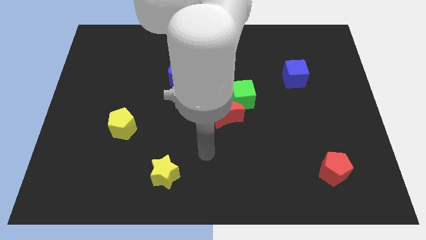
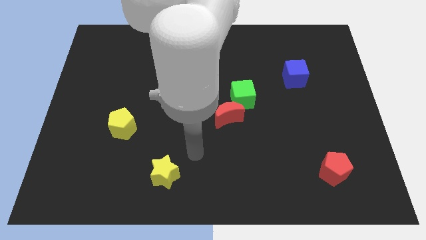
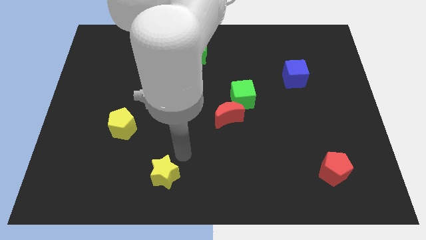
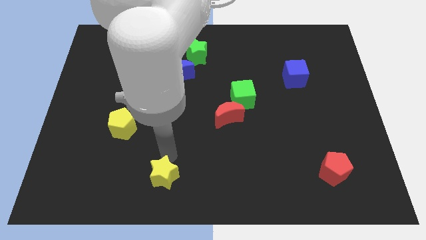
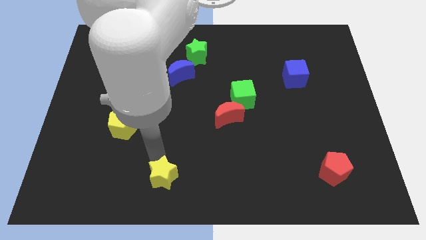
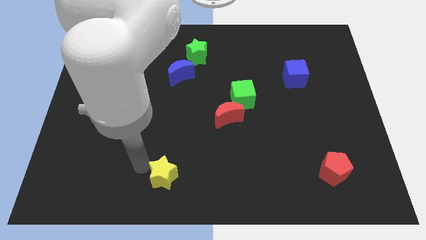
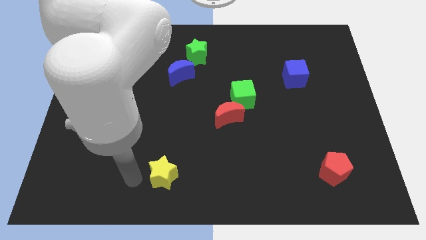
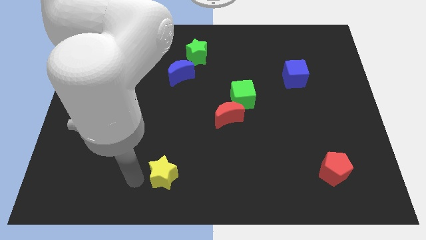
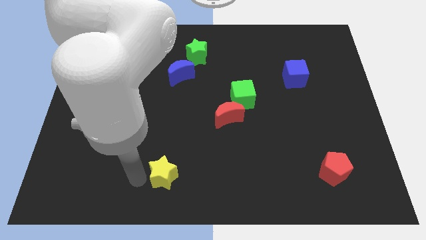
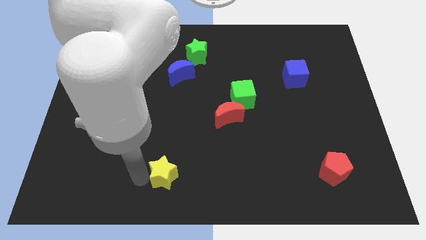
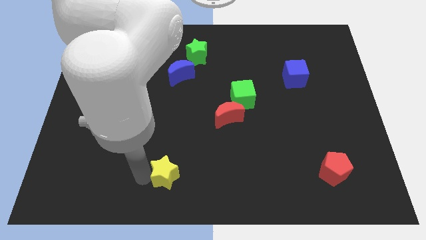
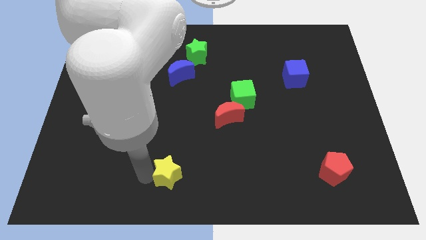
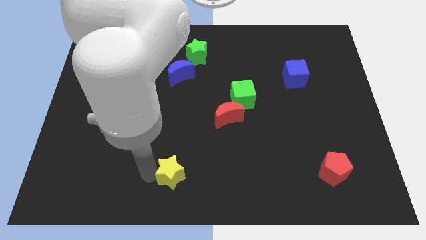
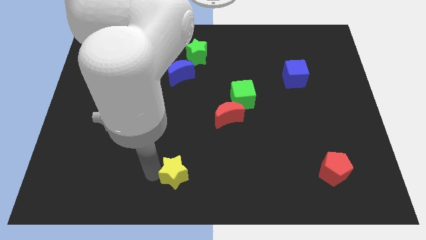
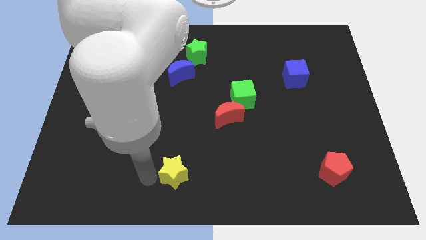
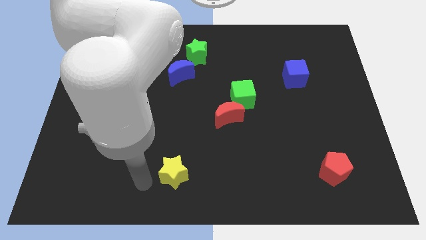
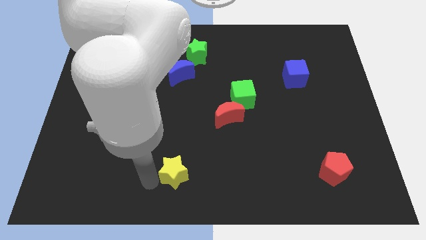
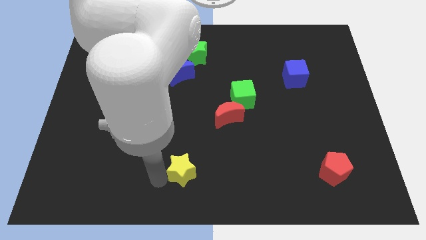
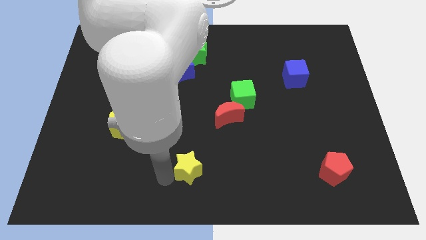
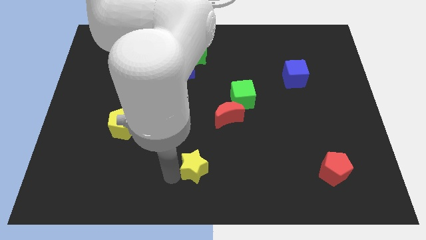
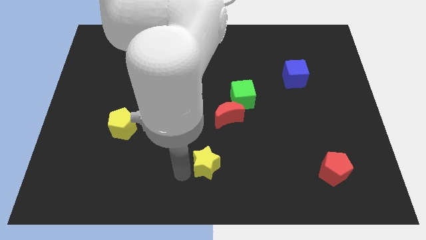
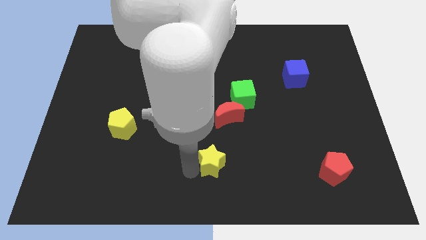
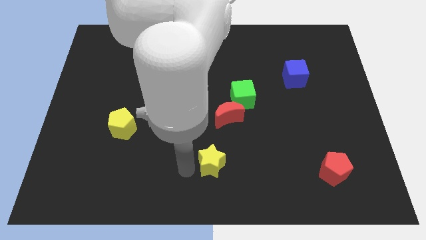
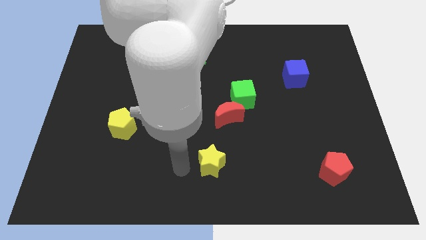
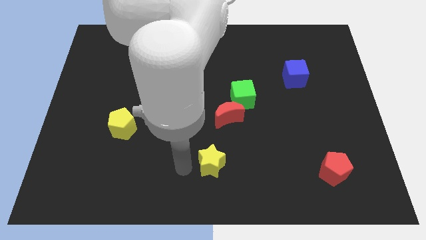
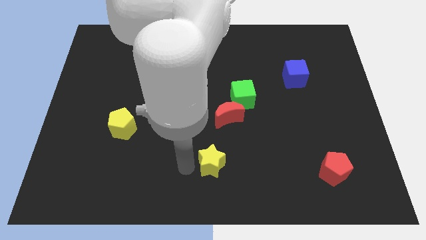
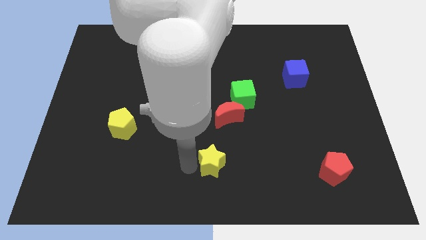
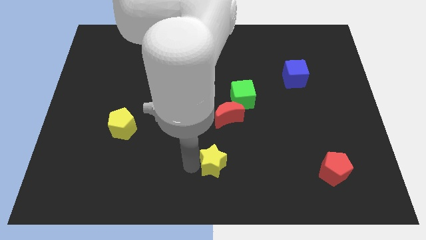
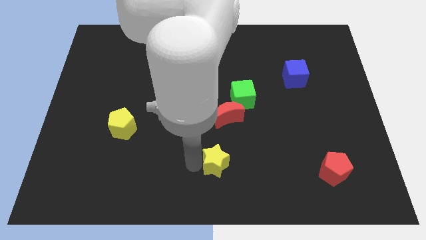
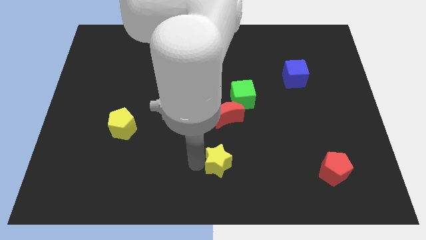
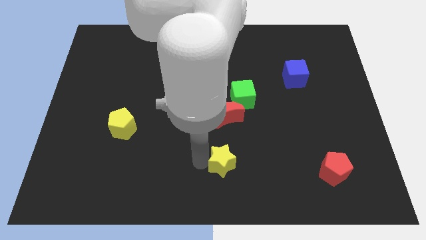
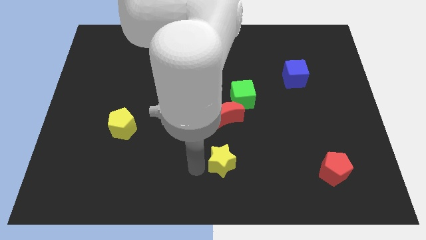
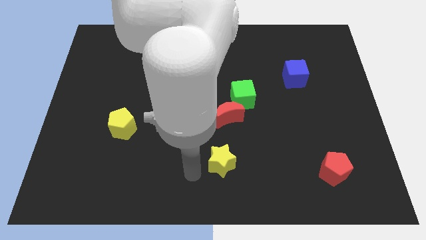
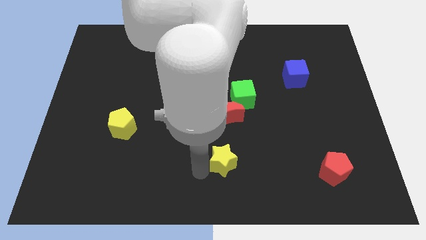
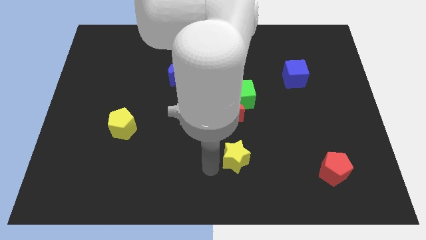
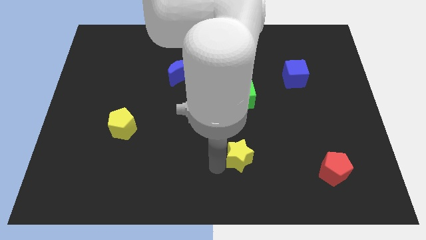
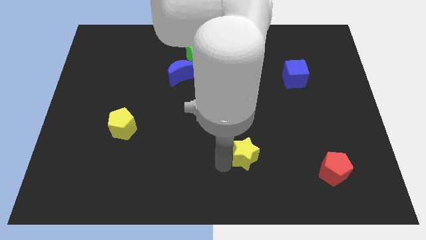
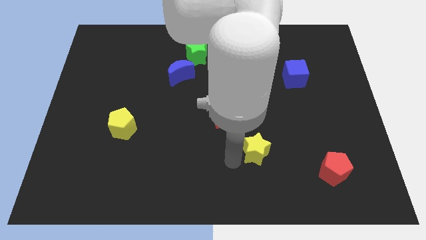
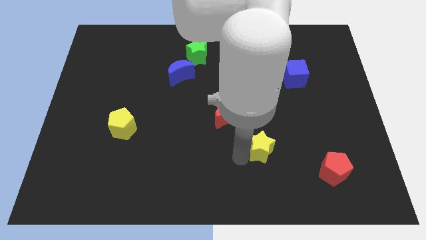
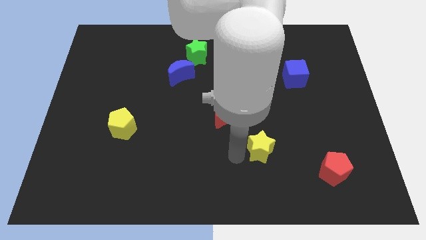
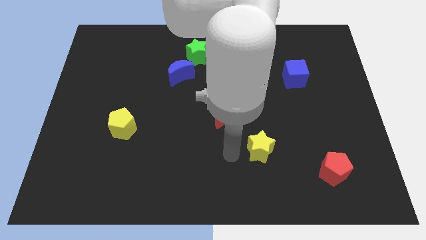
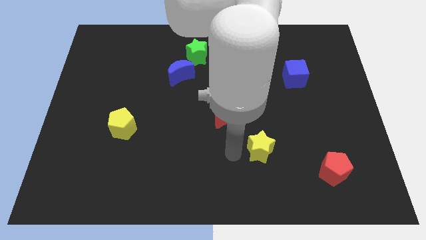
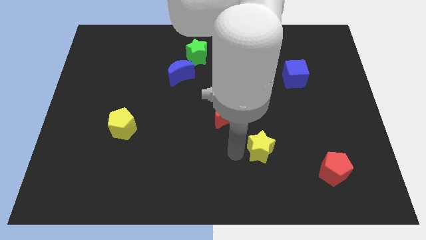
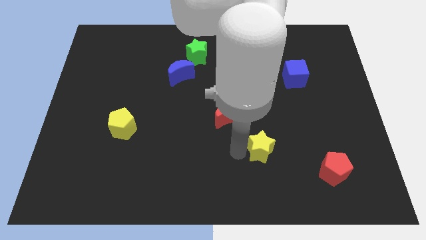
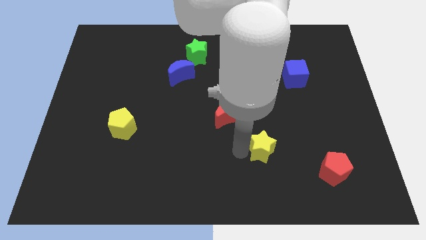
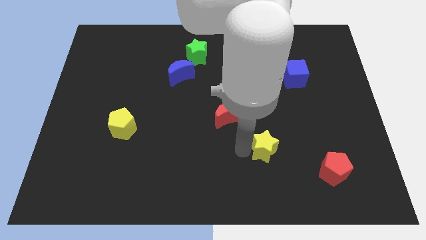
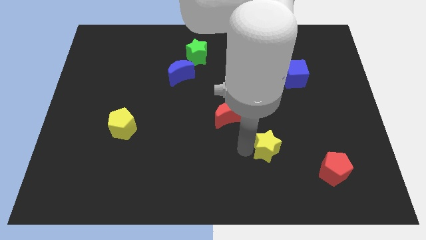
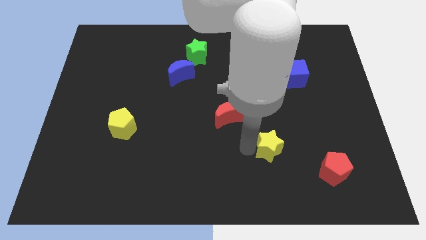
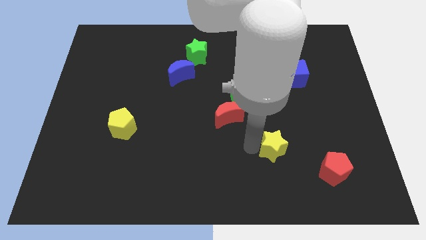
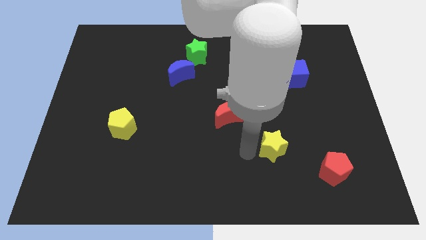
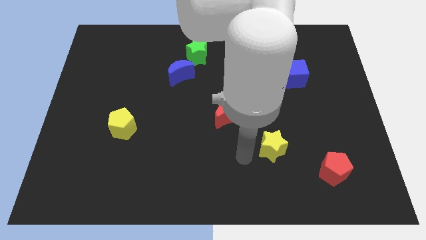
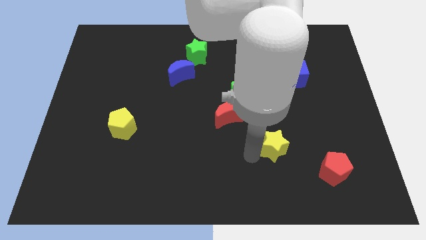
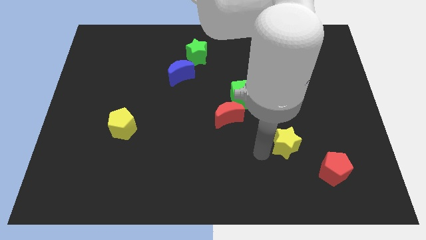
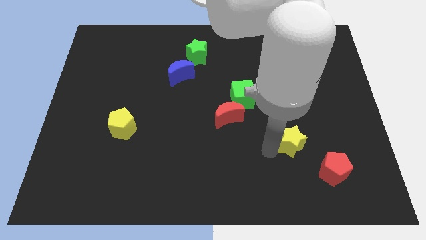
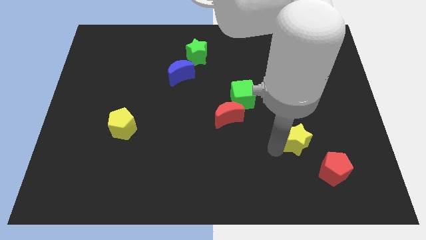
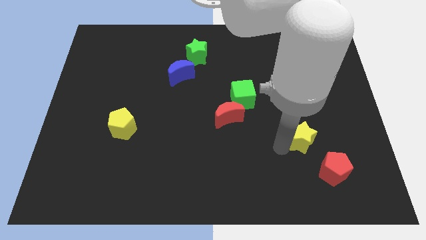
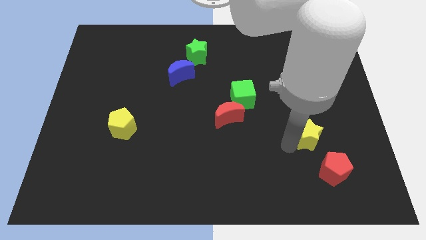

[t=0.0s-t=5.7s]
move the yellow star to the top of the red pentagon

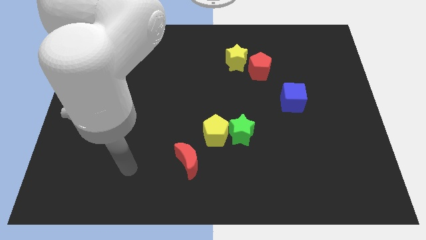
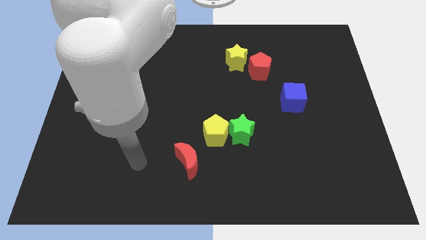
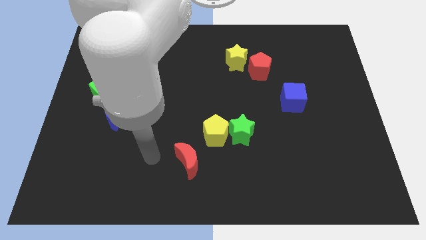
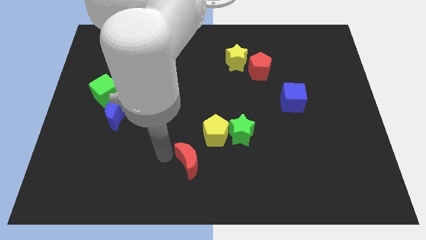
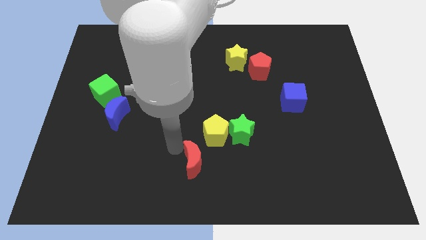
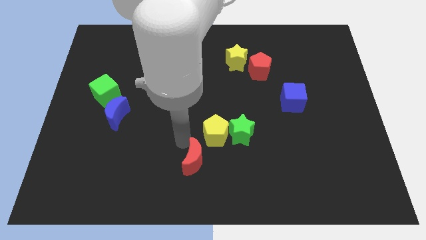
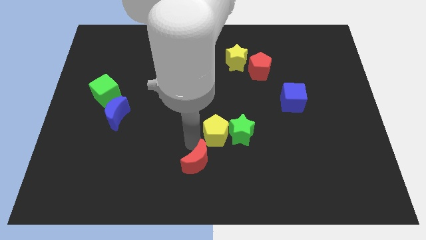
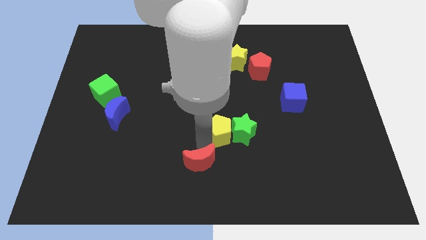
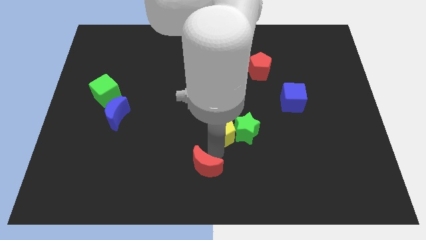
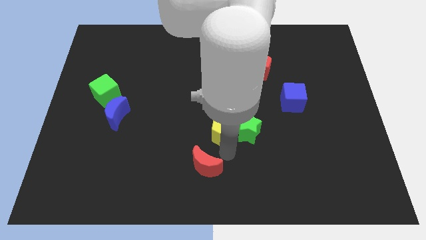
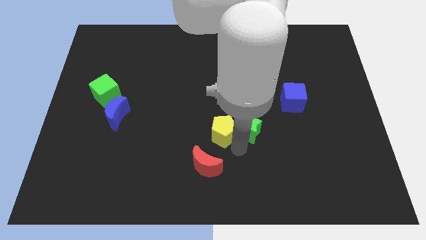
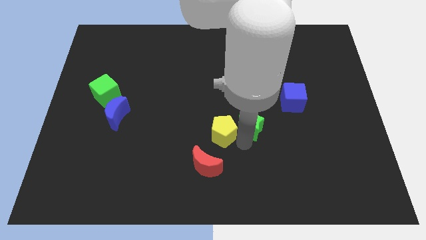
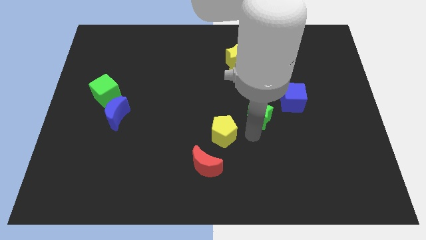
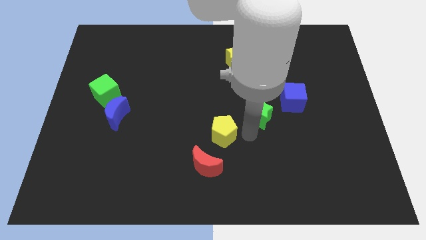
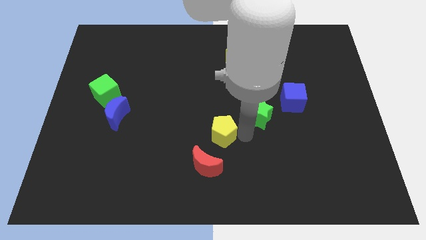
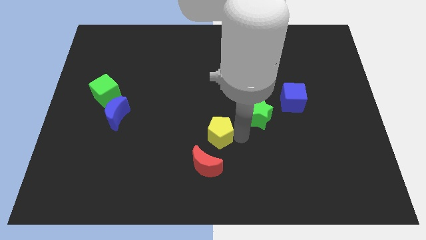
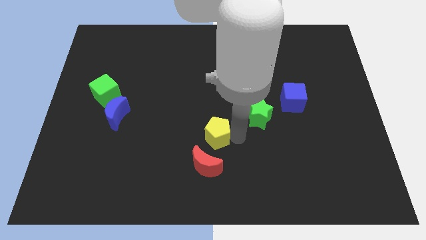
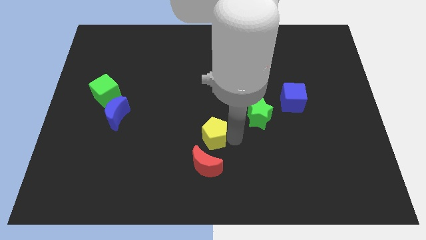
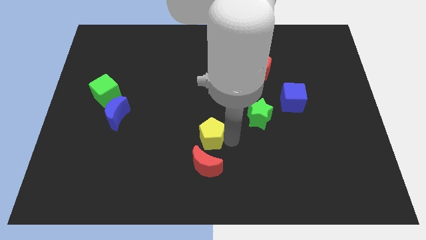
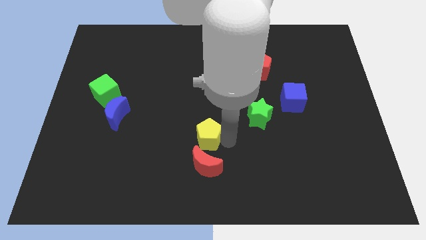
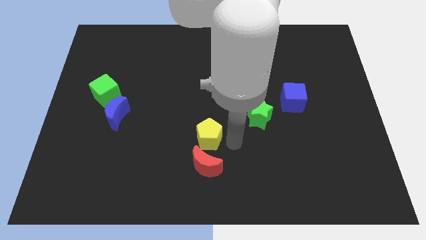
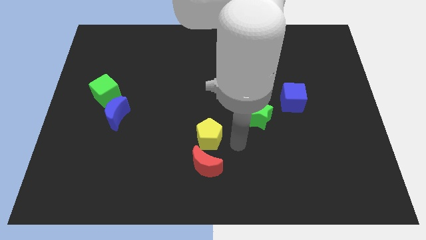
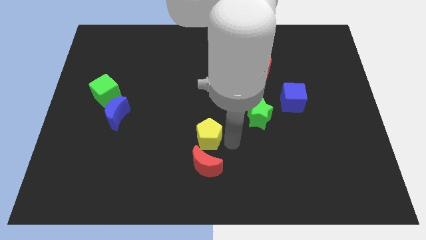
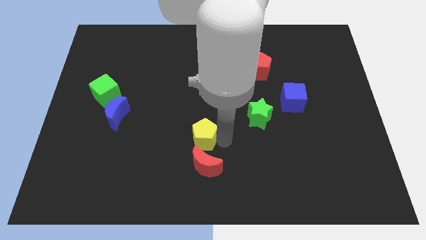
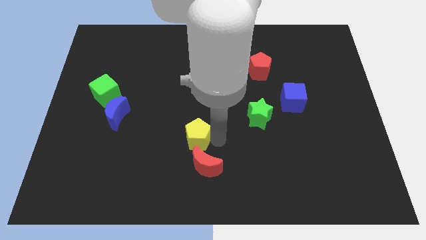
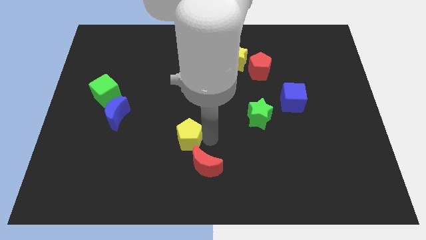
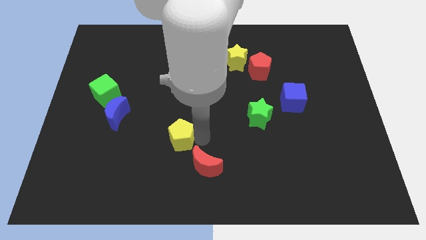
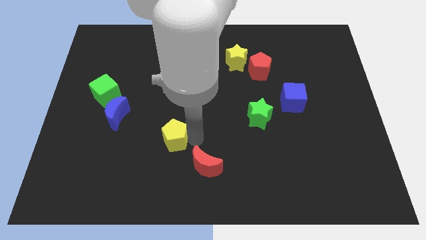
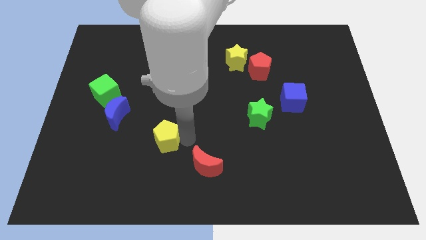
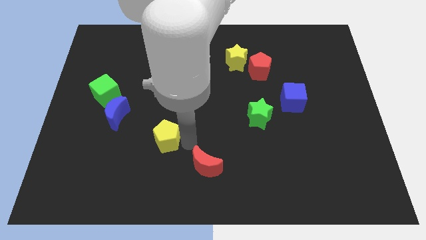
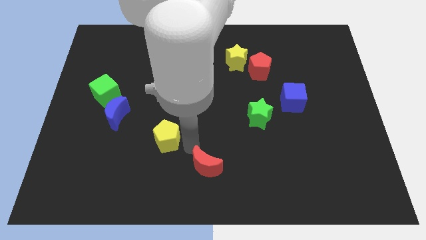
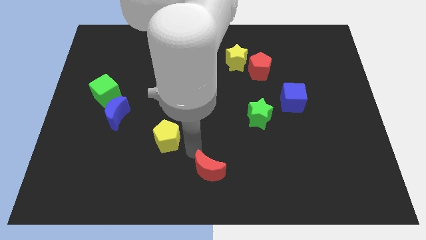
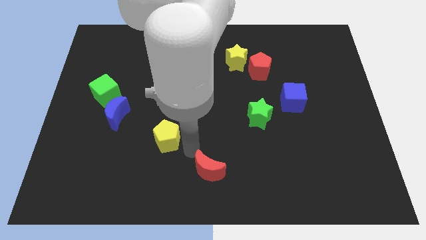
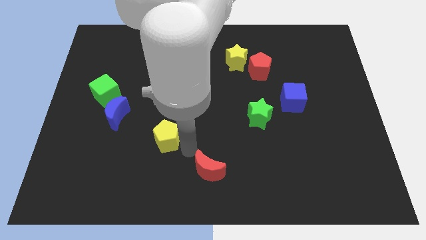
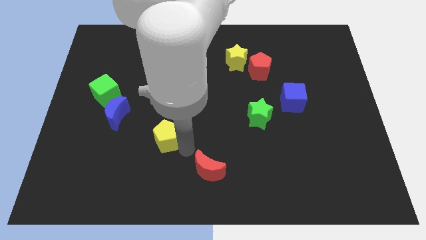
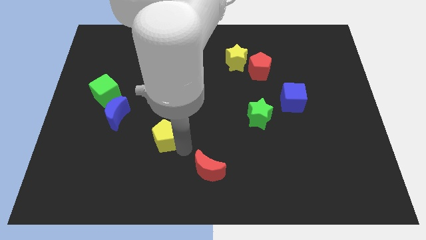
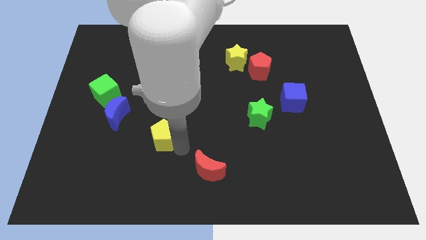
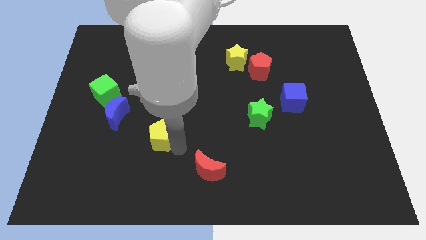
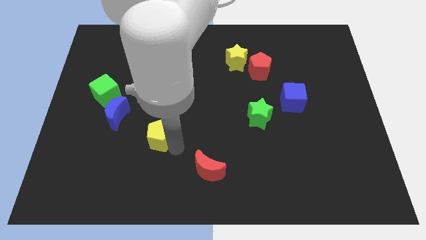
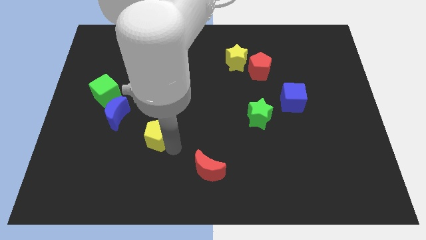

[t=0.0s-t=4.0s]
slide the yellow pentagon to the bottom right side of the blue moon
